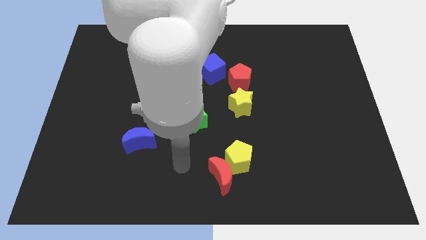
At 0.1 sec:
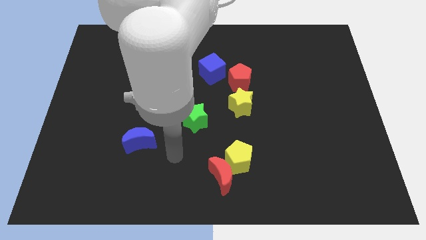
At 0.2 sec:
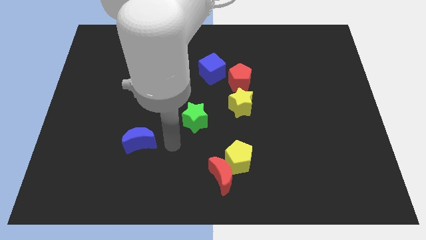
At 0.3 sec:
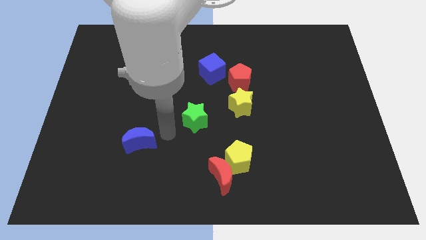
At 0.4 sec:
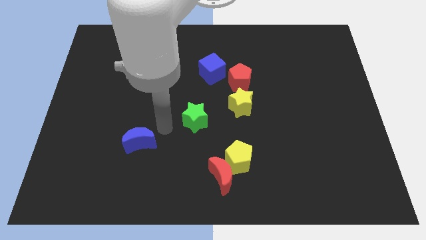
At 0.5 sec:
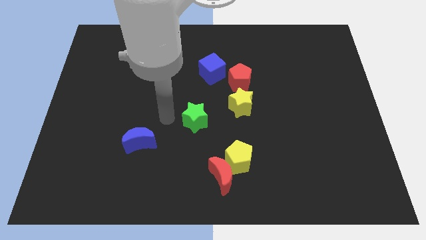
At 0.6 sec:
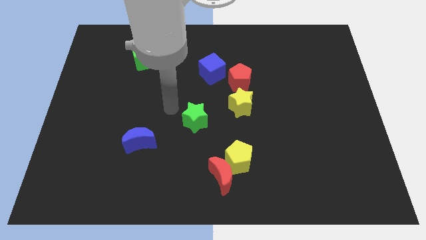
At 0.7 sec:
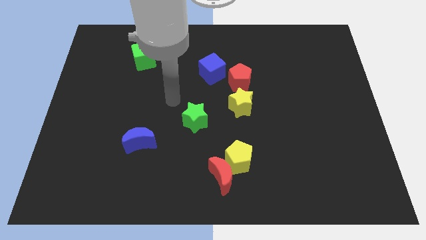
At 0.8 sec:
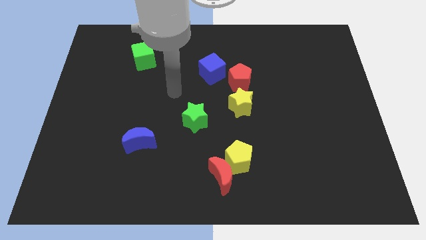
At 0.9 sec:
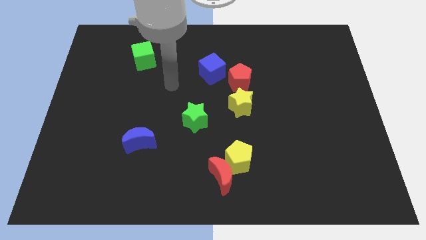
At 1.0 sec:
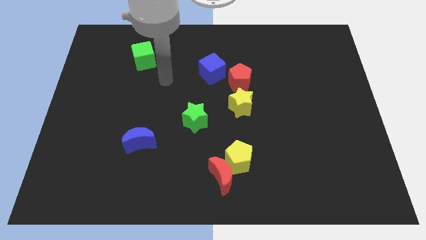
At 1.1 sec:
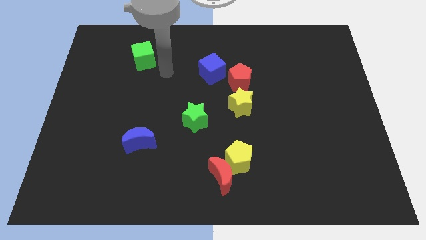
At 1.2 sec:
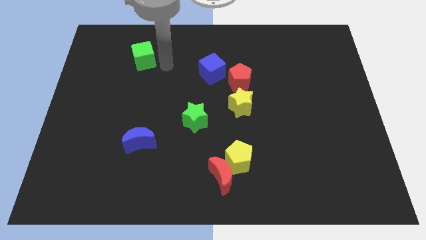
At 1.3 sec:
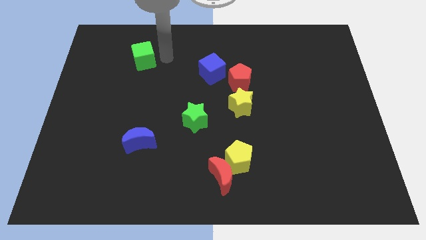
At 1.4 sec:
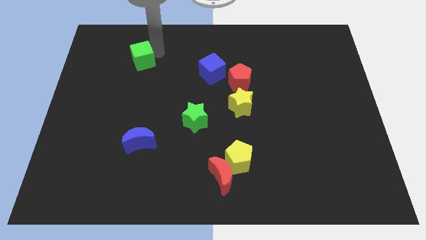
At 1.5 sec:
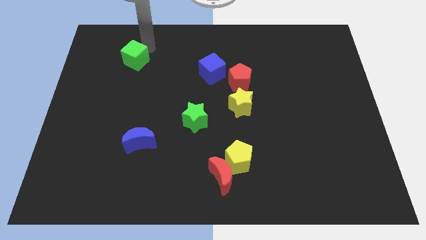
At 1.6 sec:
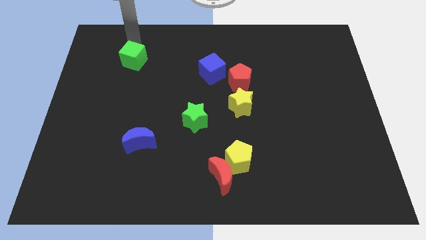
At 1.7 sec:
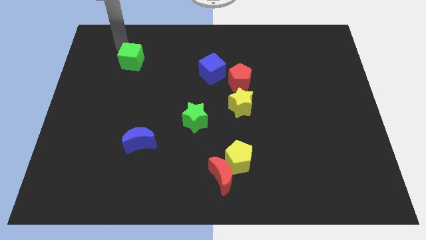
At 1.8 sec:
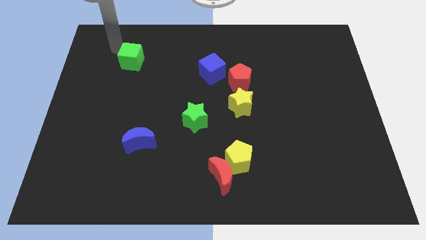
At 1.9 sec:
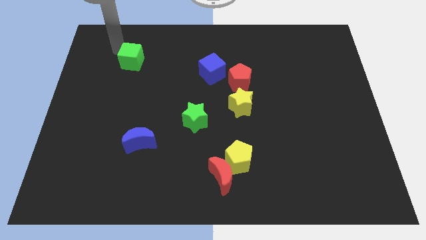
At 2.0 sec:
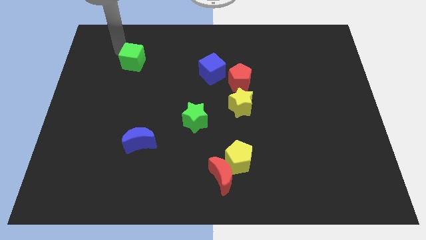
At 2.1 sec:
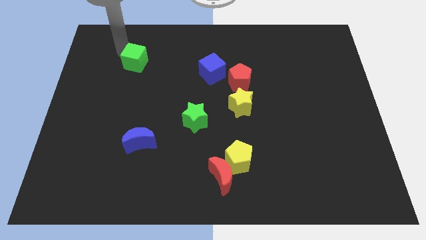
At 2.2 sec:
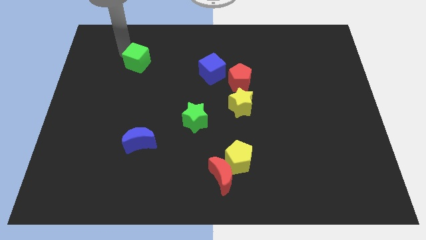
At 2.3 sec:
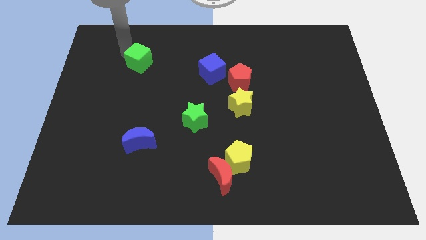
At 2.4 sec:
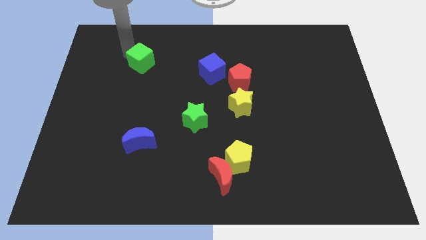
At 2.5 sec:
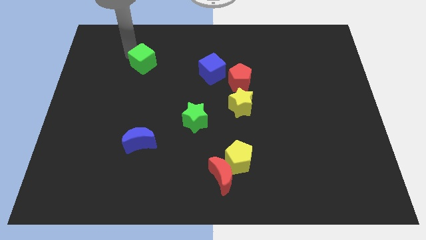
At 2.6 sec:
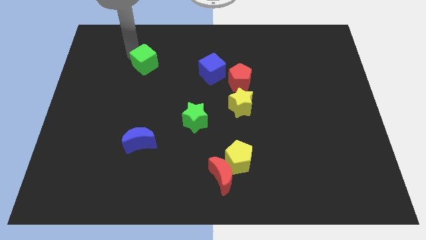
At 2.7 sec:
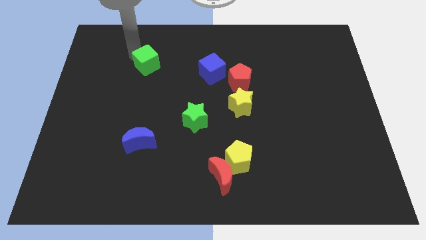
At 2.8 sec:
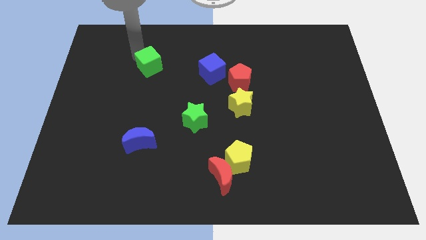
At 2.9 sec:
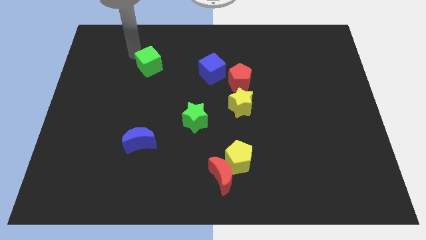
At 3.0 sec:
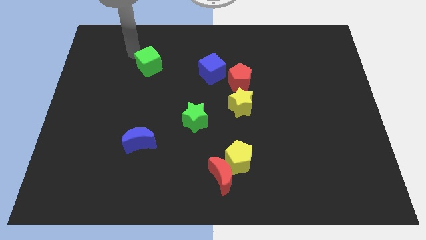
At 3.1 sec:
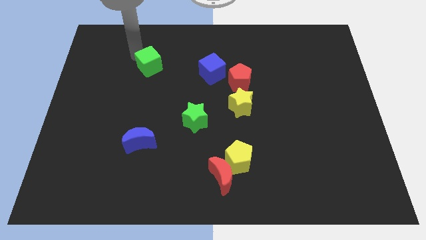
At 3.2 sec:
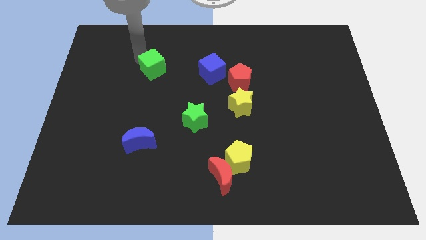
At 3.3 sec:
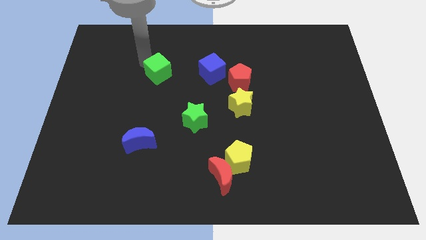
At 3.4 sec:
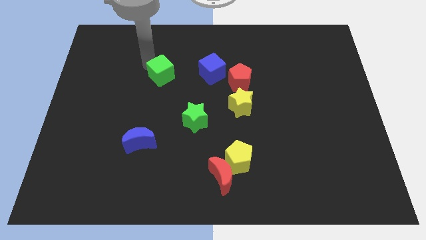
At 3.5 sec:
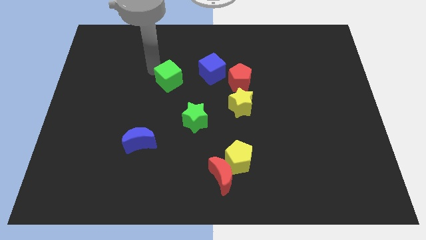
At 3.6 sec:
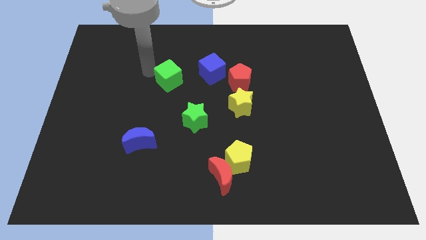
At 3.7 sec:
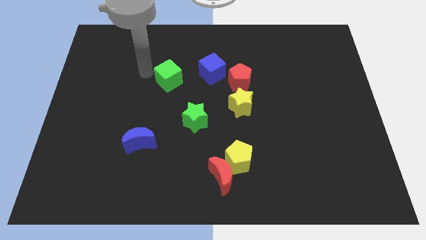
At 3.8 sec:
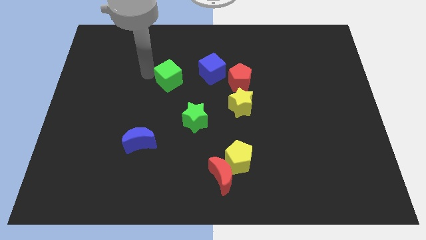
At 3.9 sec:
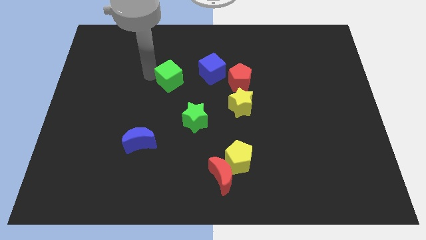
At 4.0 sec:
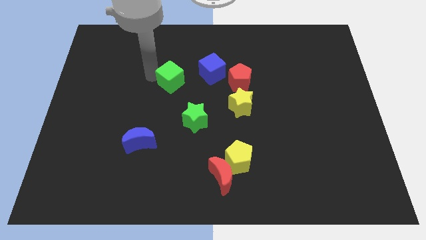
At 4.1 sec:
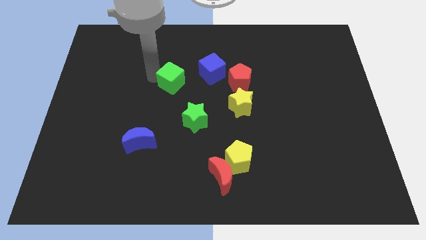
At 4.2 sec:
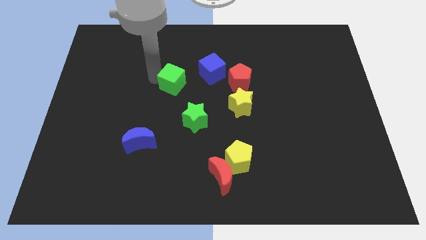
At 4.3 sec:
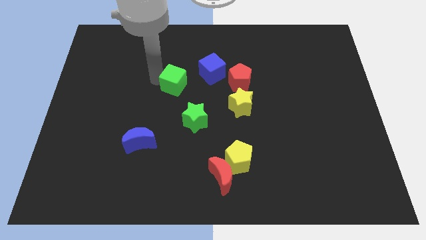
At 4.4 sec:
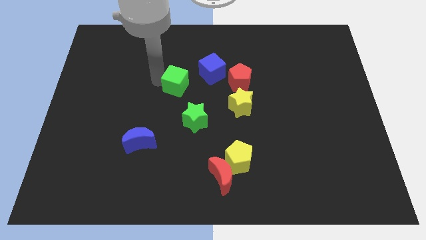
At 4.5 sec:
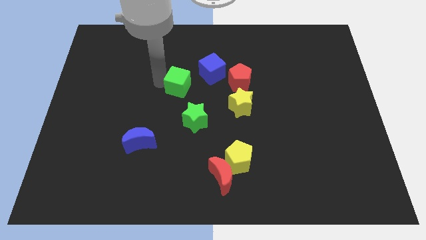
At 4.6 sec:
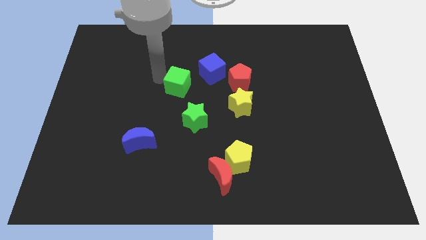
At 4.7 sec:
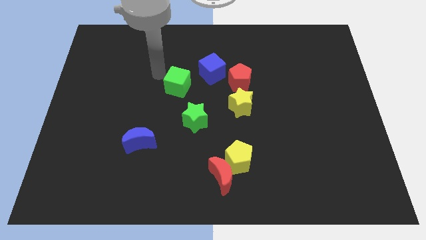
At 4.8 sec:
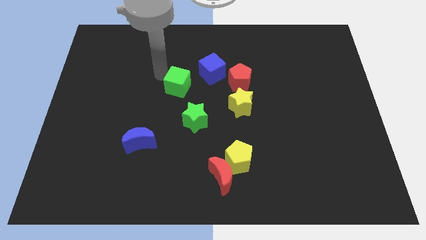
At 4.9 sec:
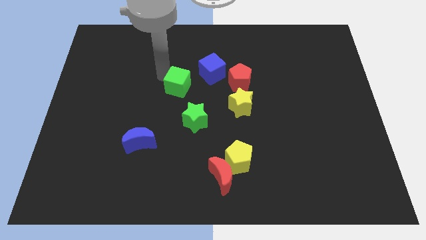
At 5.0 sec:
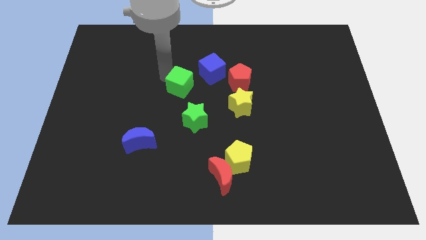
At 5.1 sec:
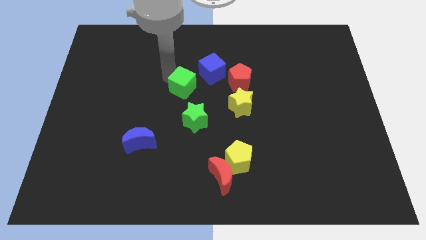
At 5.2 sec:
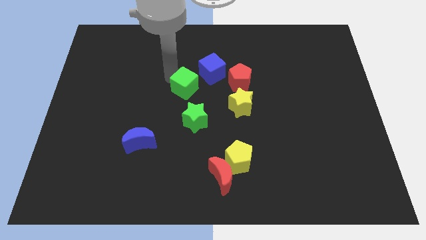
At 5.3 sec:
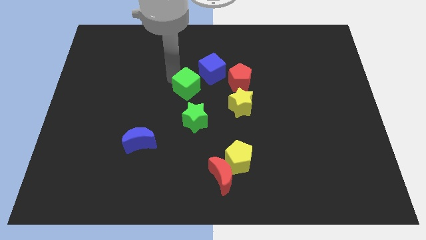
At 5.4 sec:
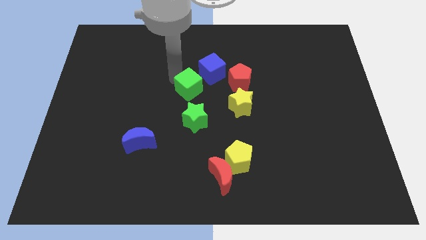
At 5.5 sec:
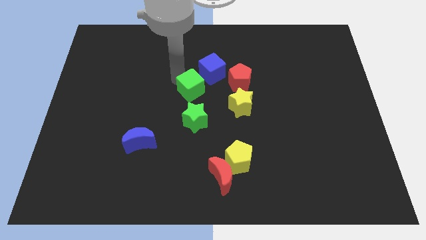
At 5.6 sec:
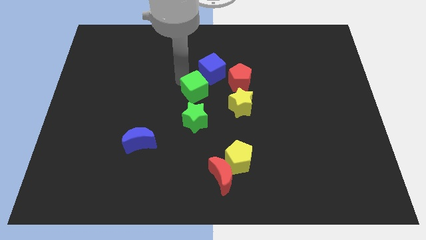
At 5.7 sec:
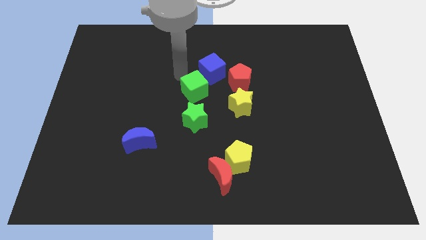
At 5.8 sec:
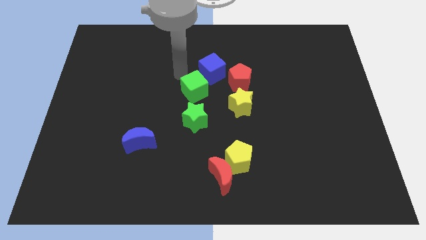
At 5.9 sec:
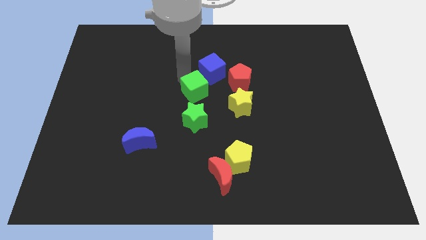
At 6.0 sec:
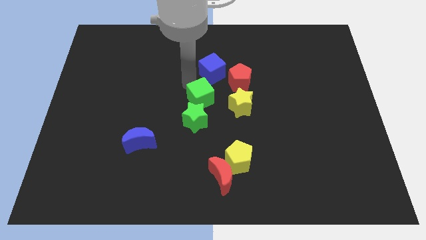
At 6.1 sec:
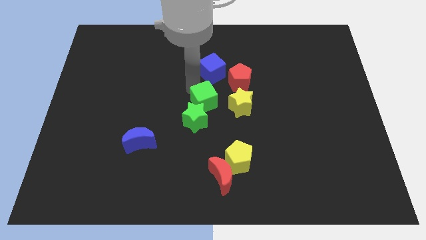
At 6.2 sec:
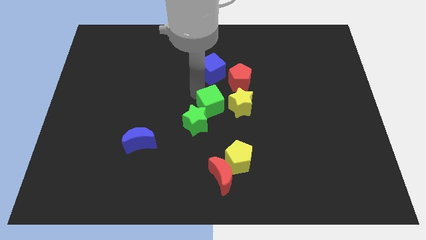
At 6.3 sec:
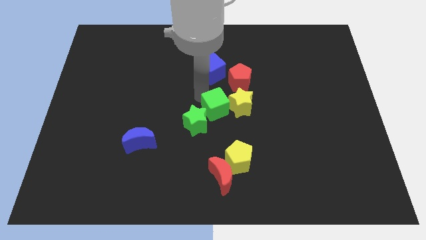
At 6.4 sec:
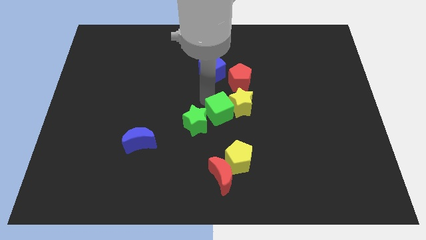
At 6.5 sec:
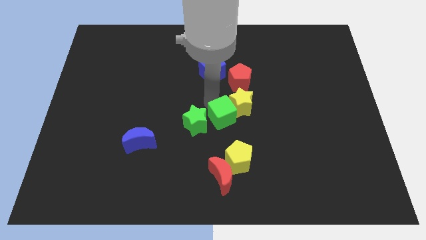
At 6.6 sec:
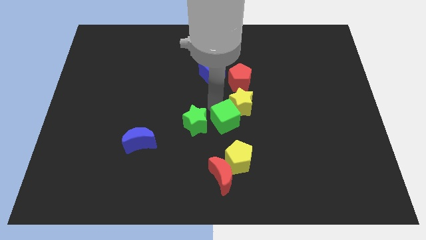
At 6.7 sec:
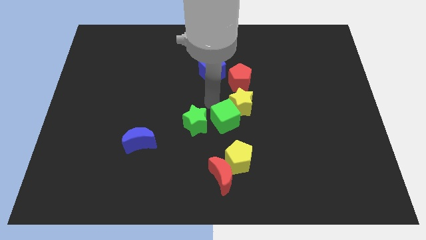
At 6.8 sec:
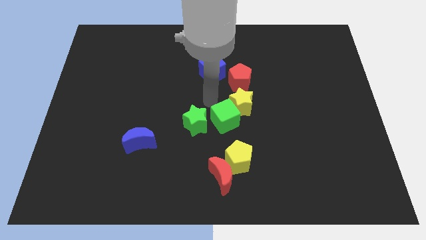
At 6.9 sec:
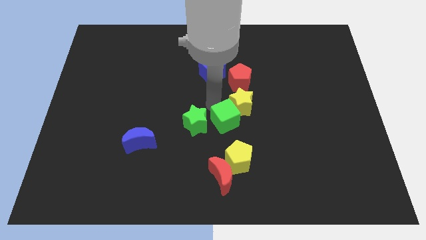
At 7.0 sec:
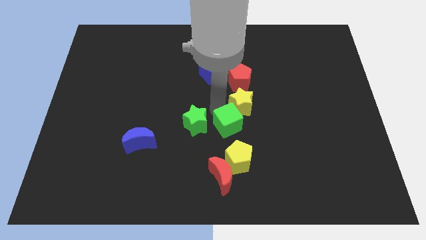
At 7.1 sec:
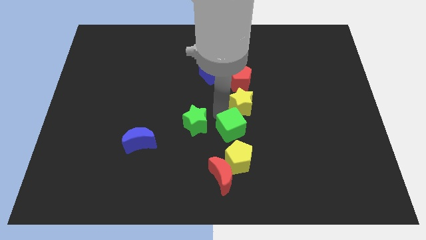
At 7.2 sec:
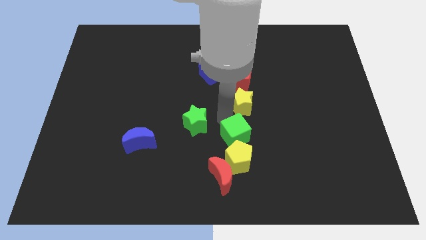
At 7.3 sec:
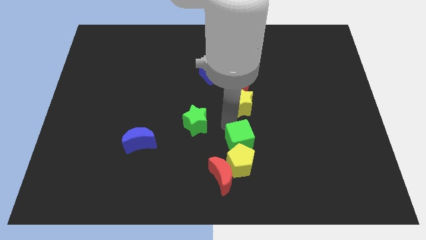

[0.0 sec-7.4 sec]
move the green cube diagonally up and to the right of the red moon
